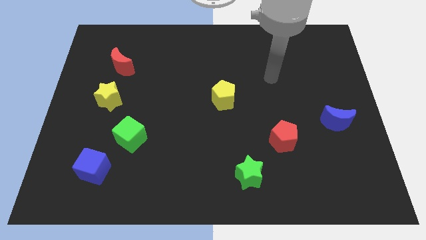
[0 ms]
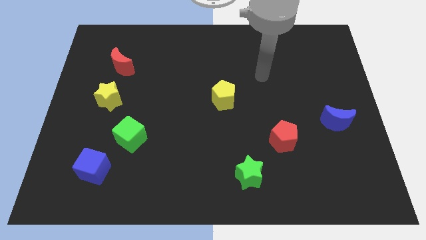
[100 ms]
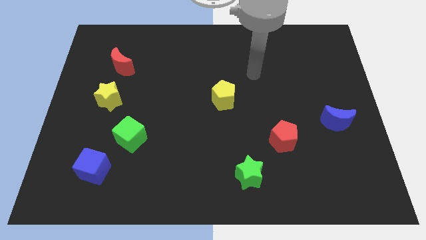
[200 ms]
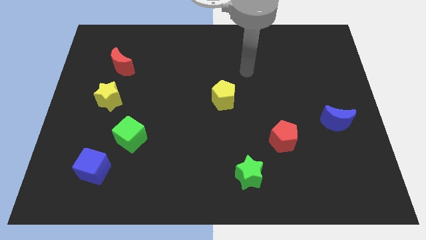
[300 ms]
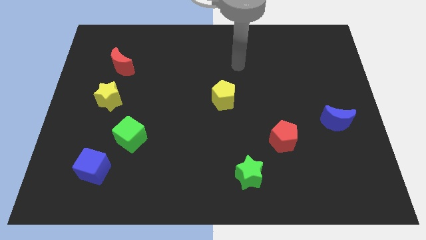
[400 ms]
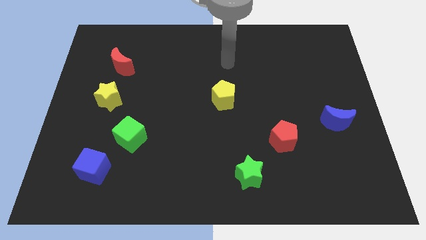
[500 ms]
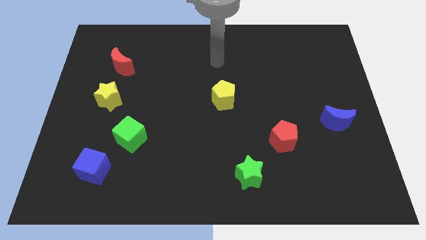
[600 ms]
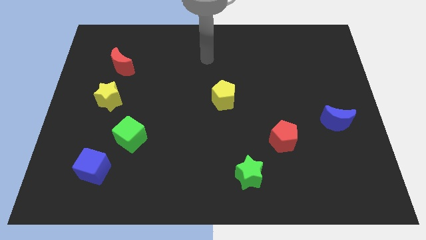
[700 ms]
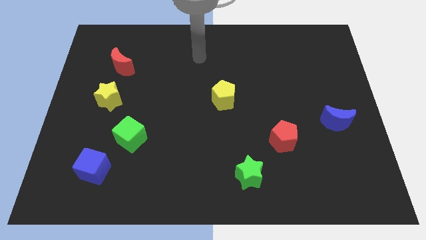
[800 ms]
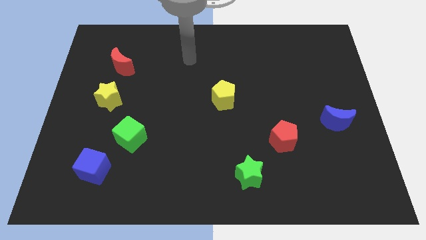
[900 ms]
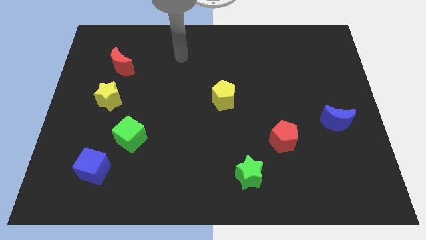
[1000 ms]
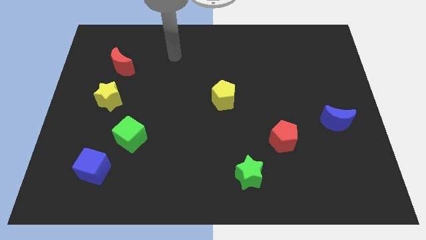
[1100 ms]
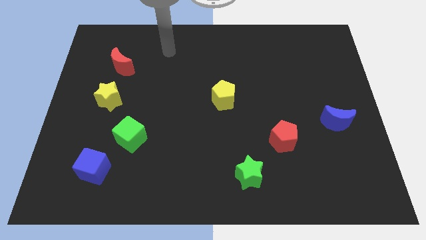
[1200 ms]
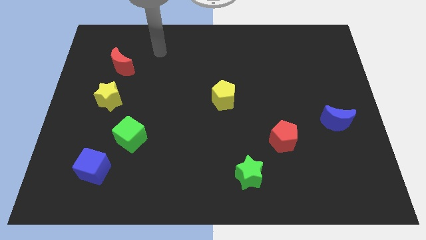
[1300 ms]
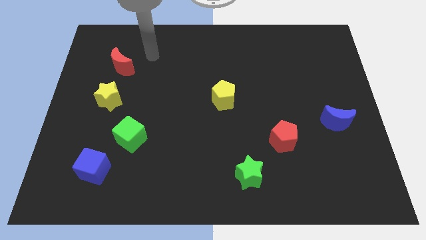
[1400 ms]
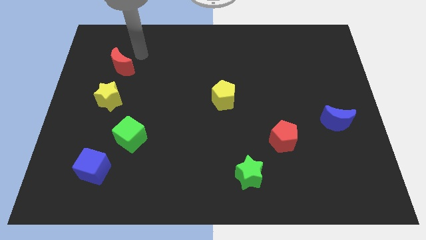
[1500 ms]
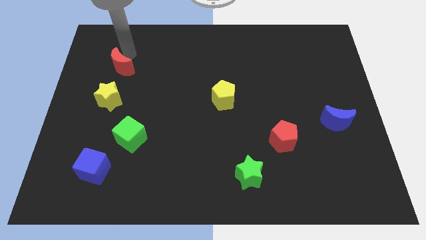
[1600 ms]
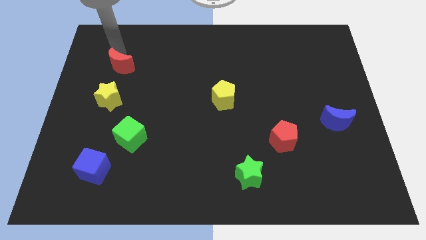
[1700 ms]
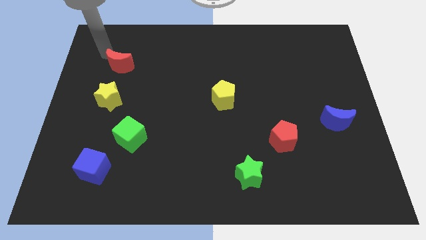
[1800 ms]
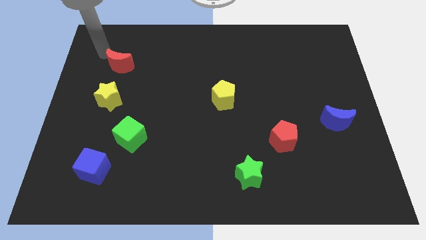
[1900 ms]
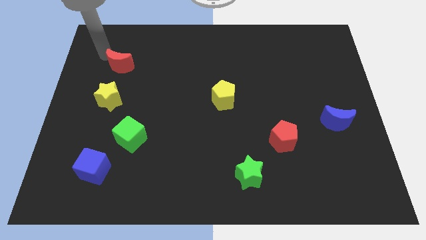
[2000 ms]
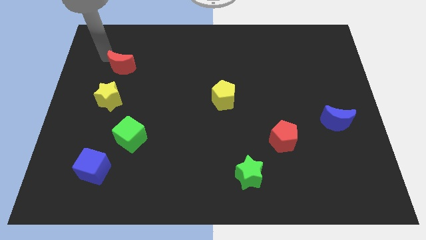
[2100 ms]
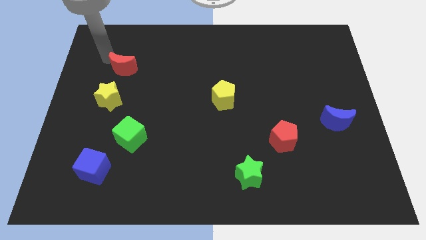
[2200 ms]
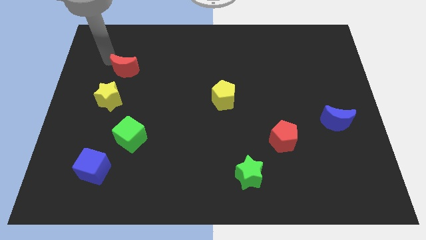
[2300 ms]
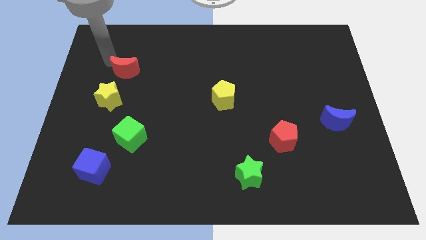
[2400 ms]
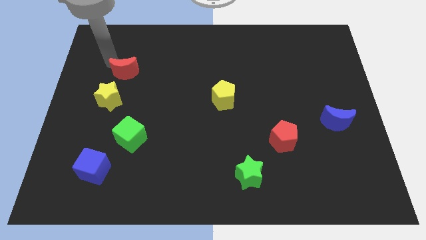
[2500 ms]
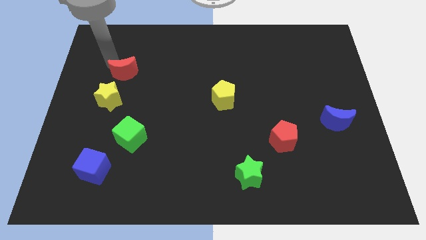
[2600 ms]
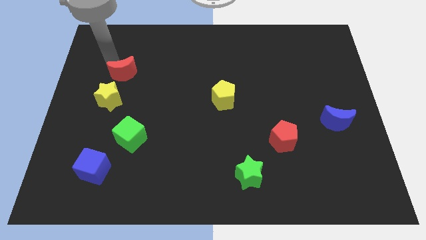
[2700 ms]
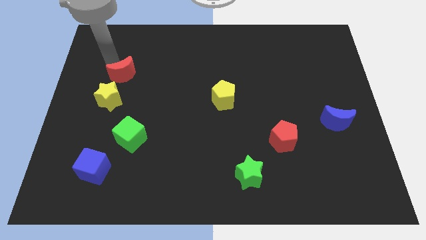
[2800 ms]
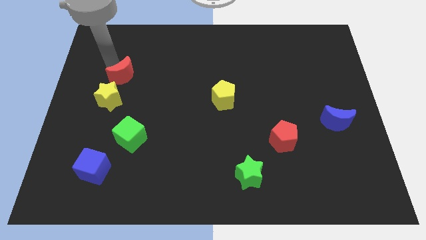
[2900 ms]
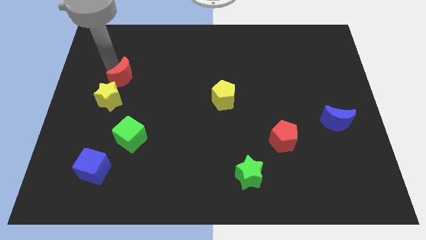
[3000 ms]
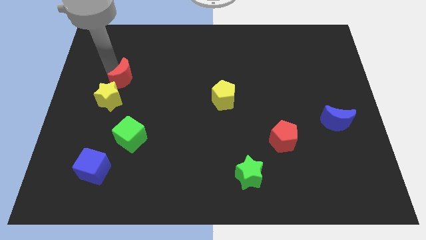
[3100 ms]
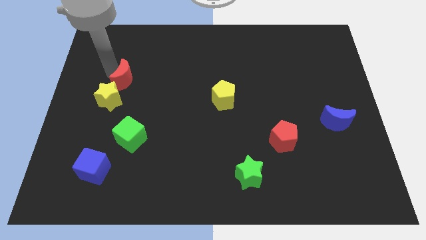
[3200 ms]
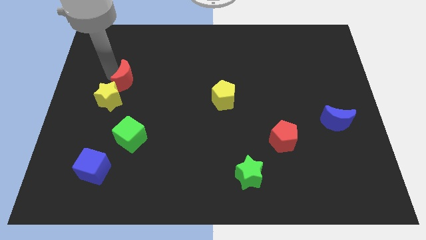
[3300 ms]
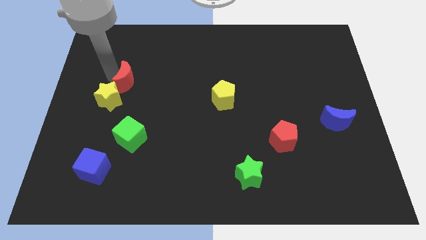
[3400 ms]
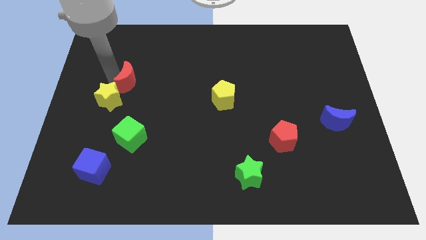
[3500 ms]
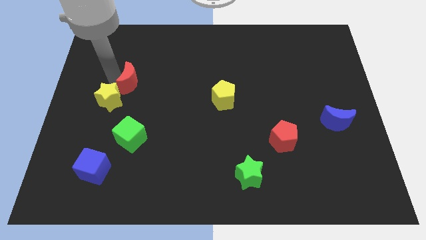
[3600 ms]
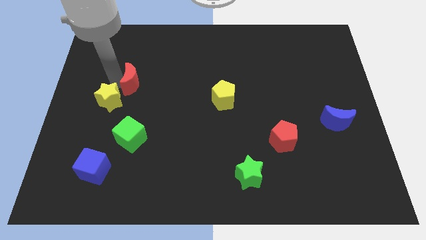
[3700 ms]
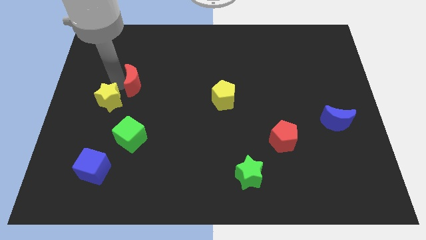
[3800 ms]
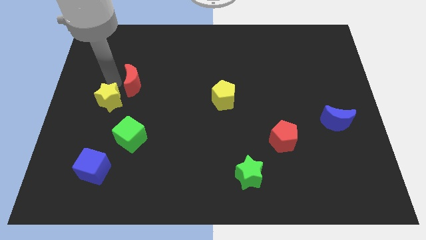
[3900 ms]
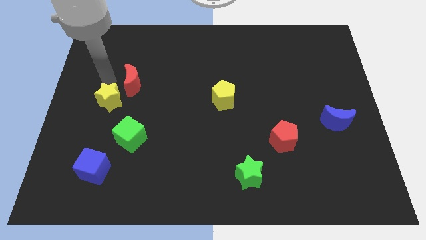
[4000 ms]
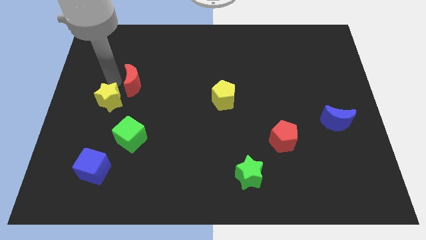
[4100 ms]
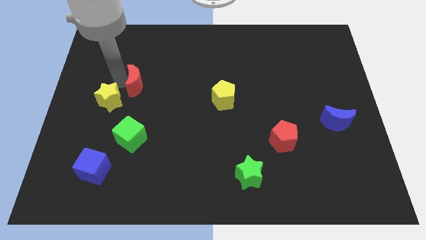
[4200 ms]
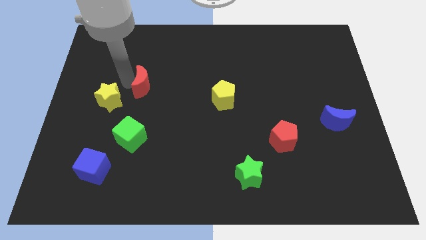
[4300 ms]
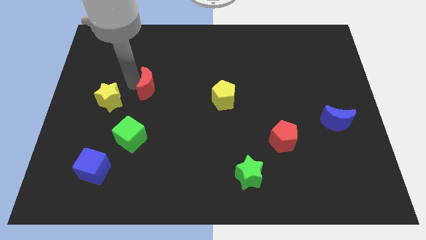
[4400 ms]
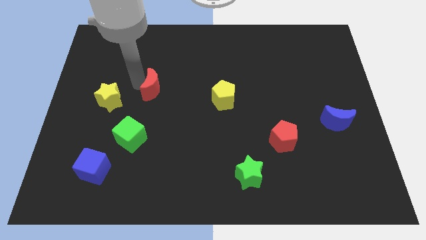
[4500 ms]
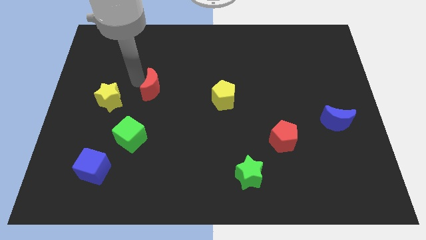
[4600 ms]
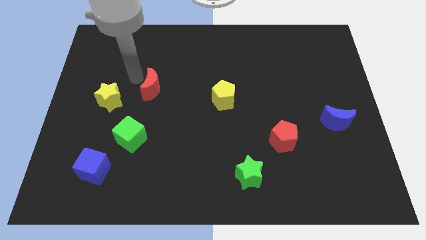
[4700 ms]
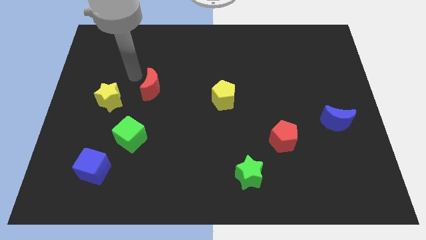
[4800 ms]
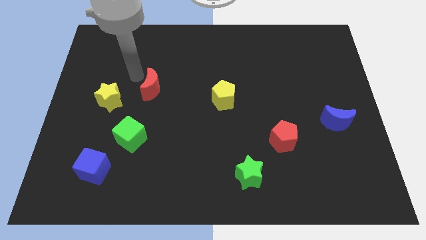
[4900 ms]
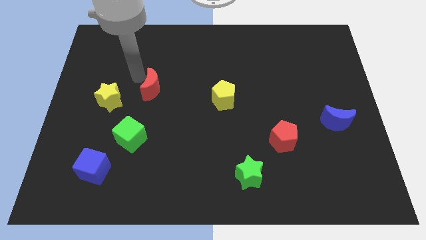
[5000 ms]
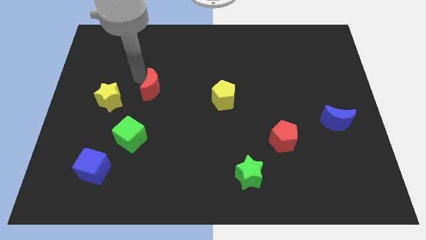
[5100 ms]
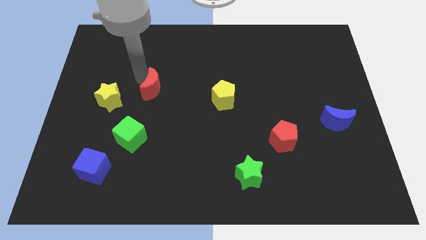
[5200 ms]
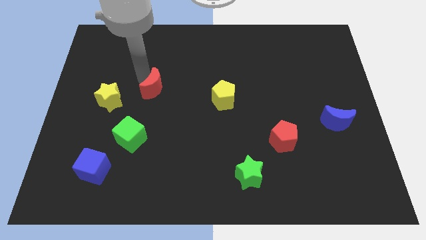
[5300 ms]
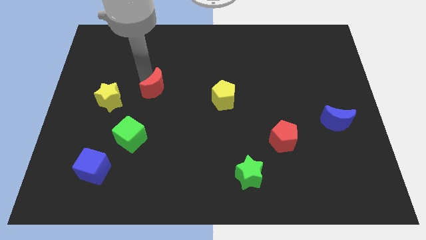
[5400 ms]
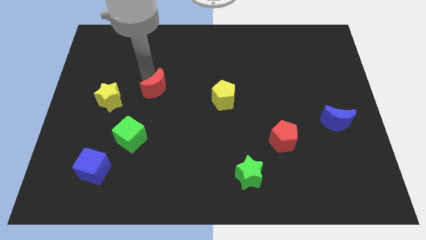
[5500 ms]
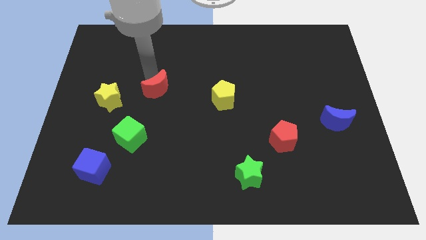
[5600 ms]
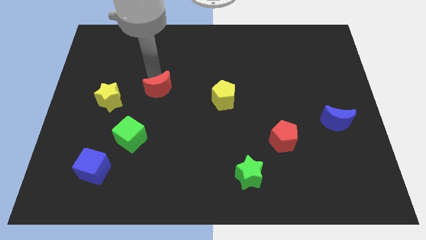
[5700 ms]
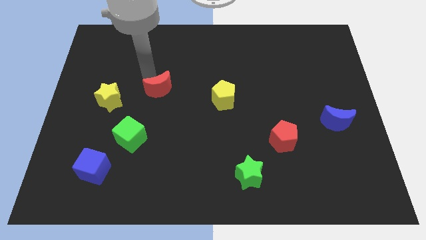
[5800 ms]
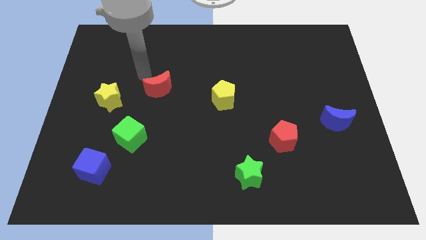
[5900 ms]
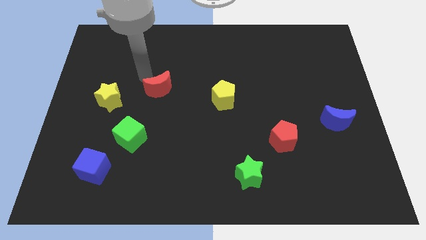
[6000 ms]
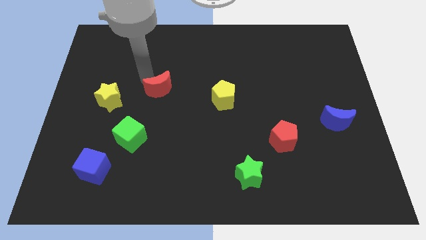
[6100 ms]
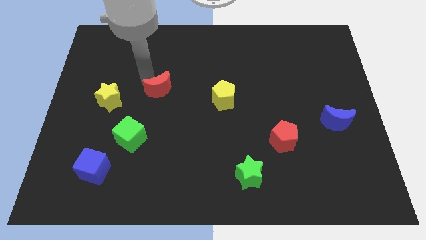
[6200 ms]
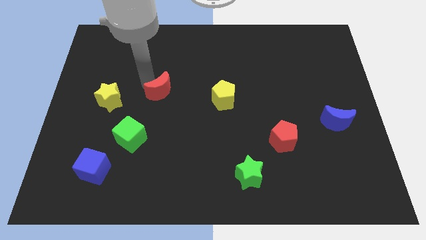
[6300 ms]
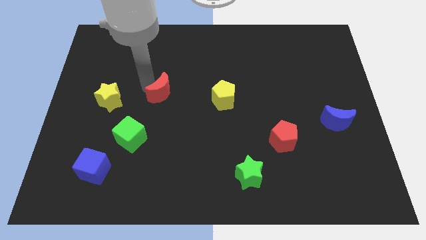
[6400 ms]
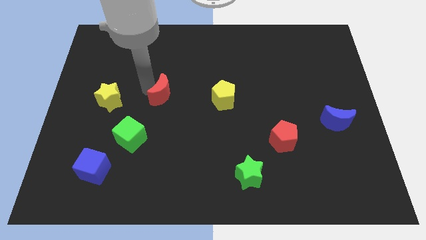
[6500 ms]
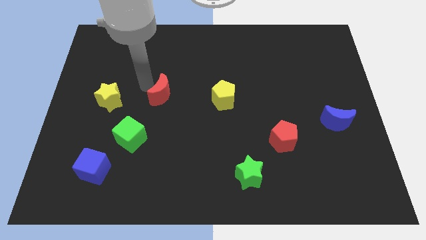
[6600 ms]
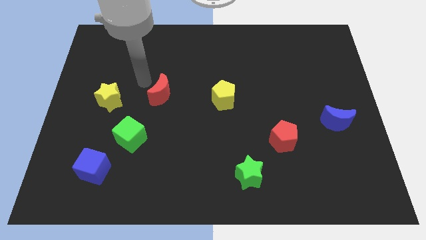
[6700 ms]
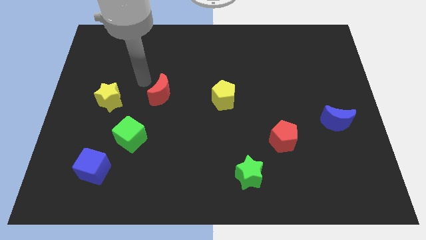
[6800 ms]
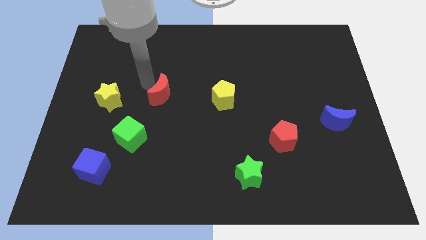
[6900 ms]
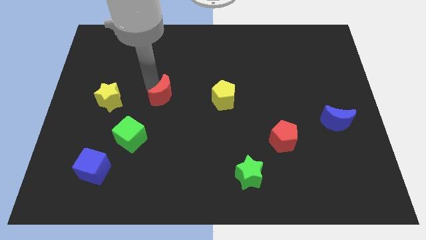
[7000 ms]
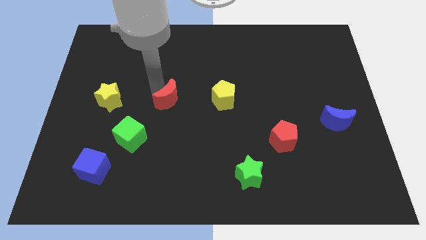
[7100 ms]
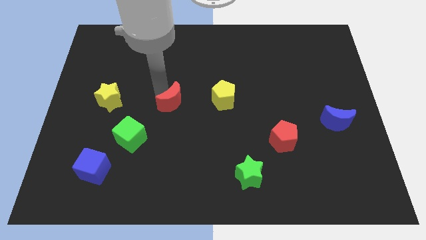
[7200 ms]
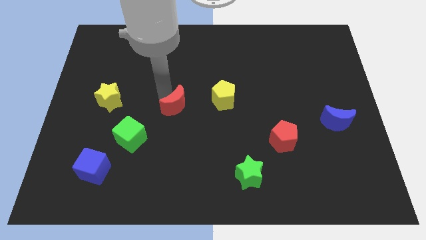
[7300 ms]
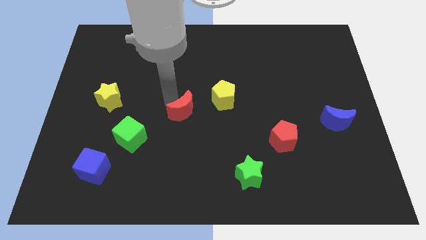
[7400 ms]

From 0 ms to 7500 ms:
slide the red moon downwards and to the right diagonally

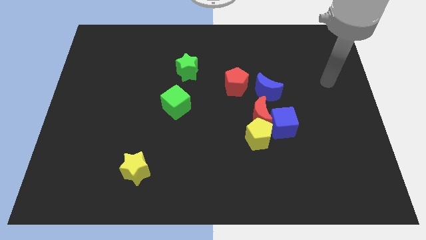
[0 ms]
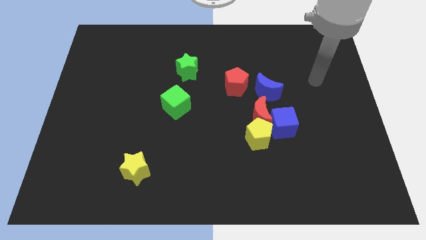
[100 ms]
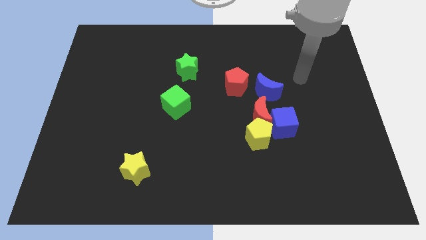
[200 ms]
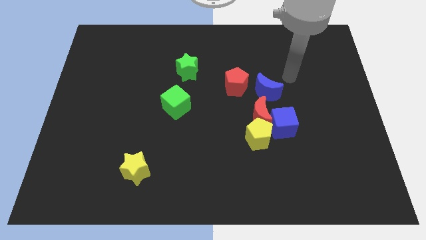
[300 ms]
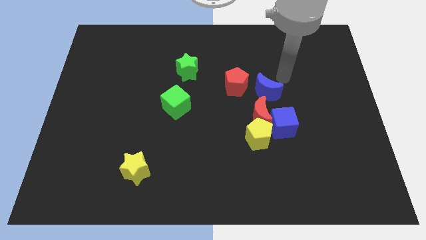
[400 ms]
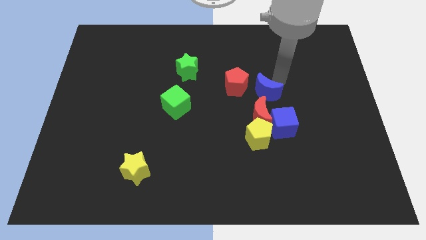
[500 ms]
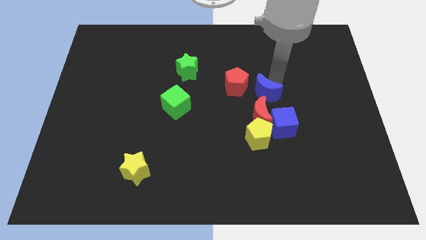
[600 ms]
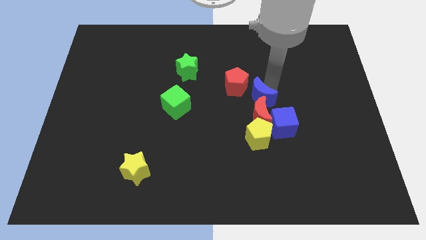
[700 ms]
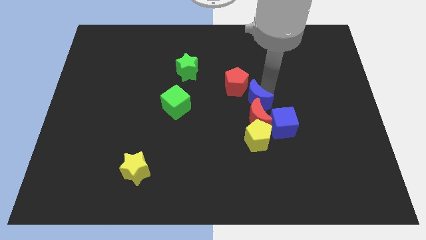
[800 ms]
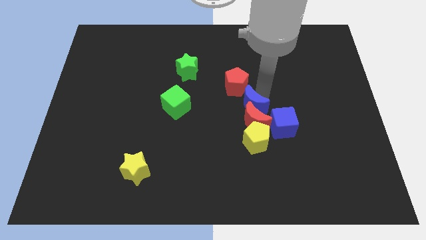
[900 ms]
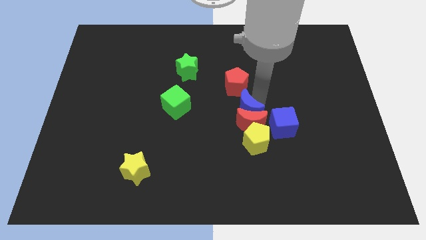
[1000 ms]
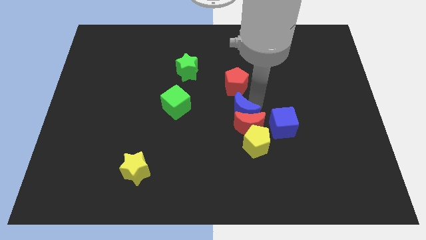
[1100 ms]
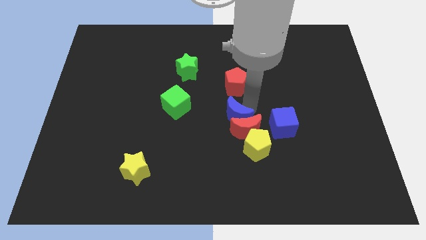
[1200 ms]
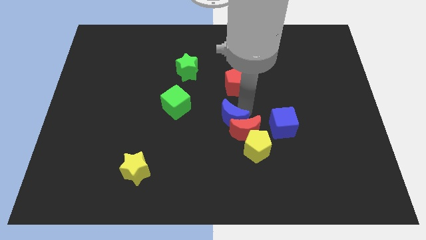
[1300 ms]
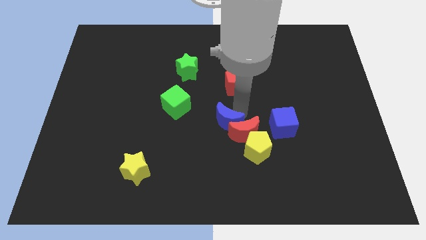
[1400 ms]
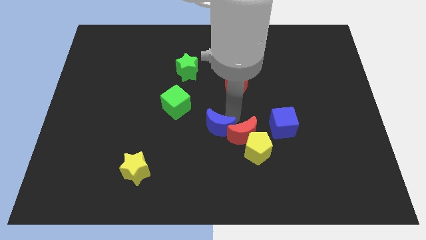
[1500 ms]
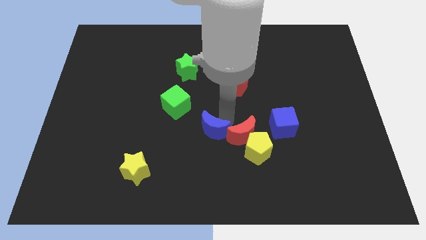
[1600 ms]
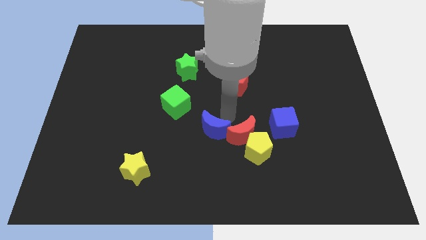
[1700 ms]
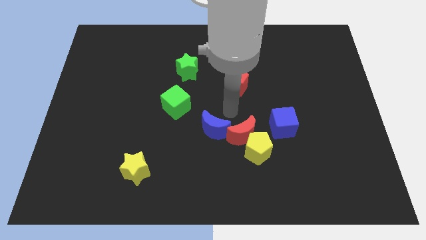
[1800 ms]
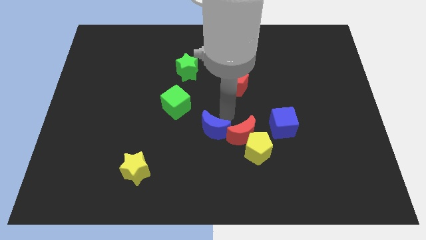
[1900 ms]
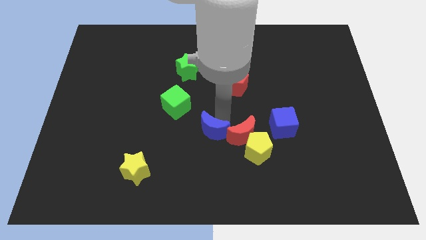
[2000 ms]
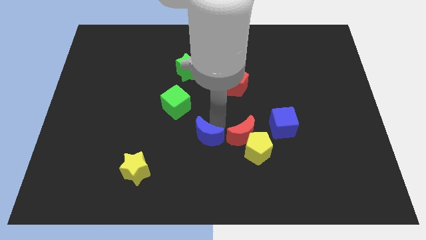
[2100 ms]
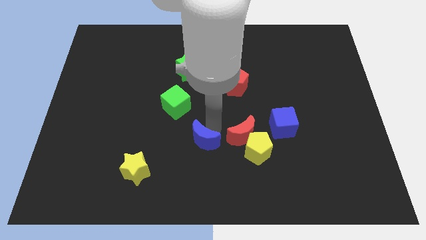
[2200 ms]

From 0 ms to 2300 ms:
push the blue moon diagonally downwards and left
